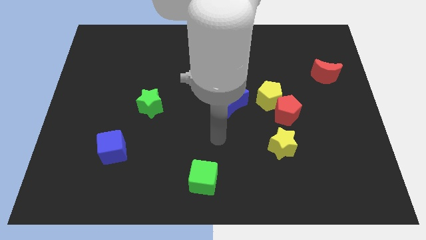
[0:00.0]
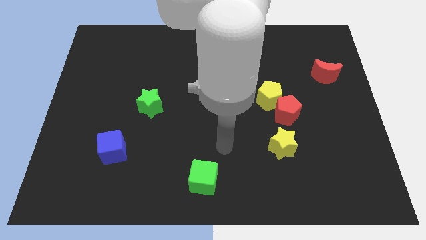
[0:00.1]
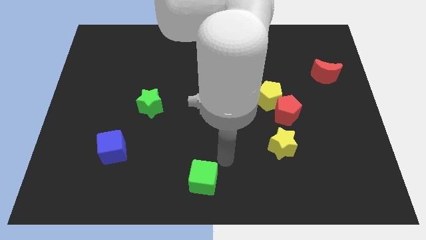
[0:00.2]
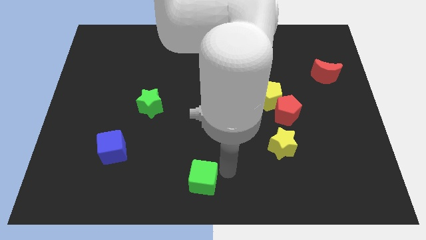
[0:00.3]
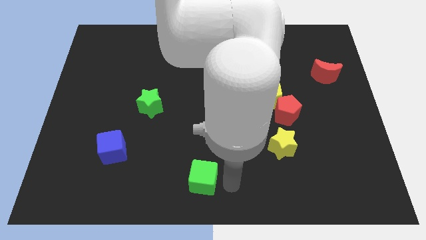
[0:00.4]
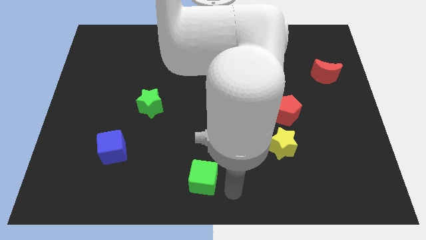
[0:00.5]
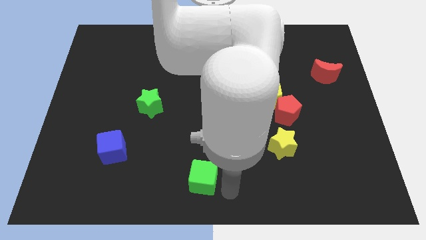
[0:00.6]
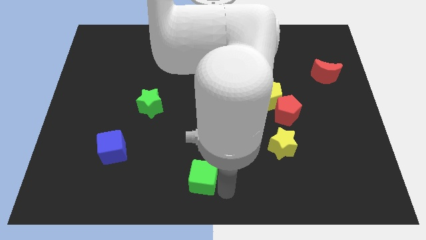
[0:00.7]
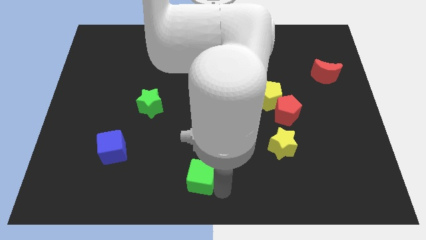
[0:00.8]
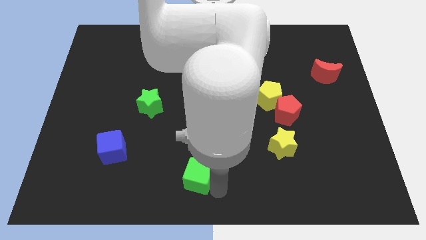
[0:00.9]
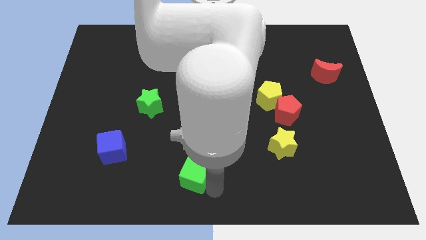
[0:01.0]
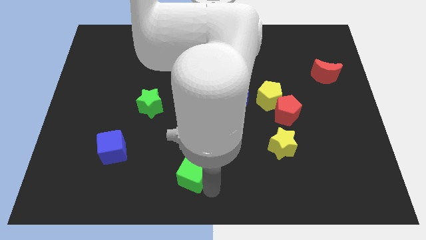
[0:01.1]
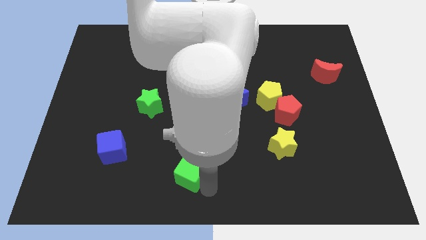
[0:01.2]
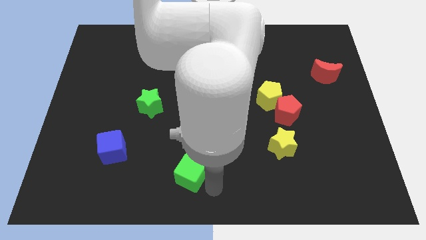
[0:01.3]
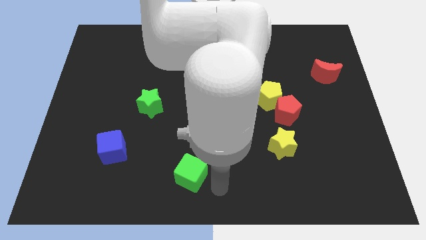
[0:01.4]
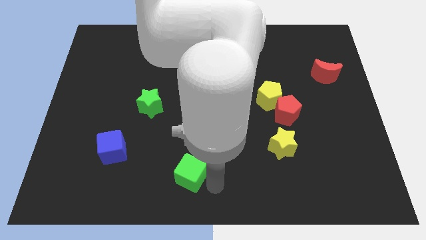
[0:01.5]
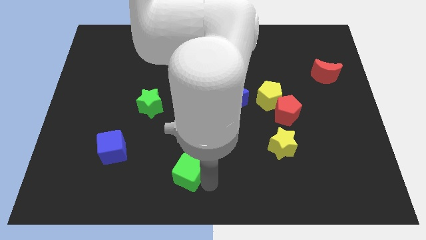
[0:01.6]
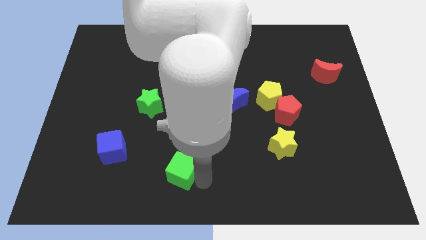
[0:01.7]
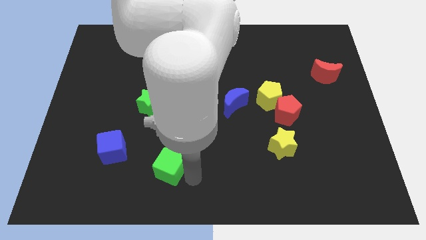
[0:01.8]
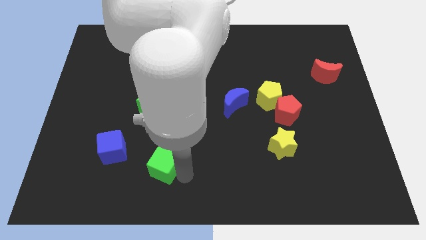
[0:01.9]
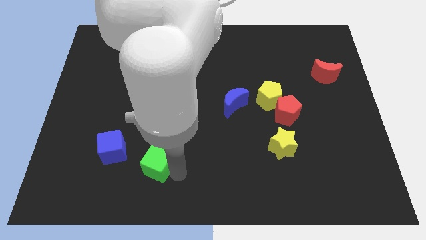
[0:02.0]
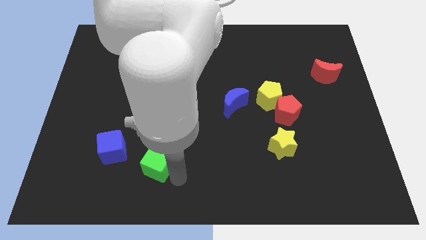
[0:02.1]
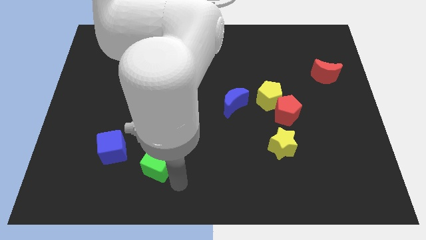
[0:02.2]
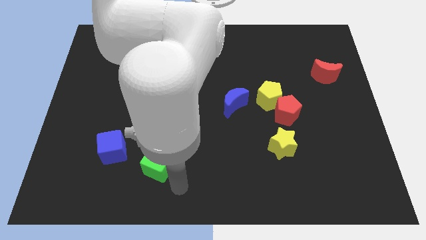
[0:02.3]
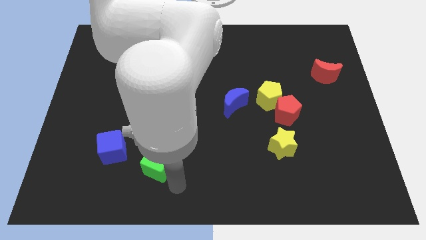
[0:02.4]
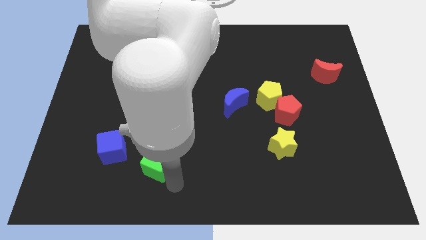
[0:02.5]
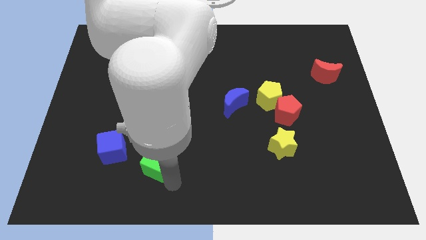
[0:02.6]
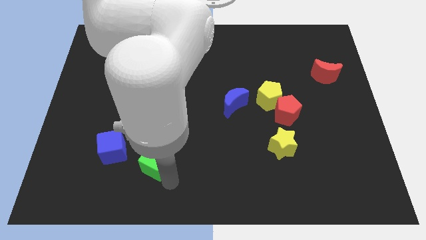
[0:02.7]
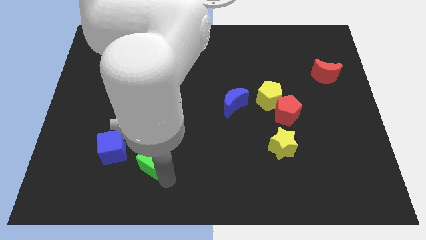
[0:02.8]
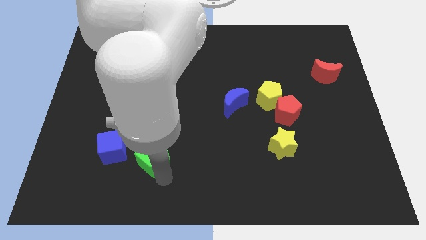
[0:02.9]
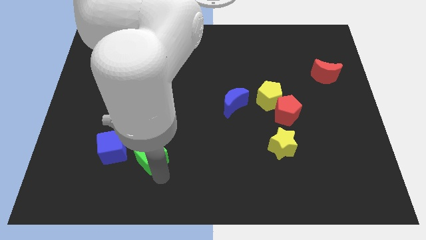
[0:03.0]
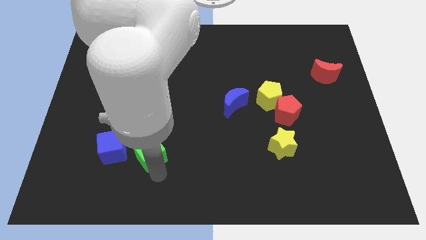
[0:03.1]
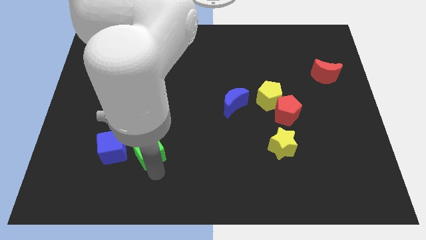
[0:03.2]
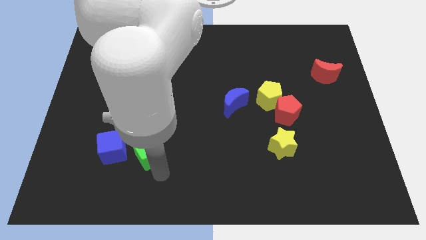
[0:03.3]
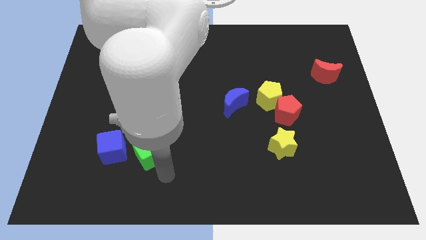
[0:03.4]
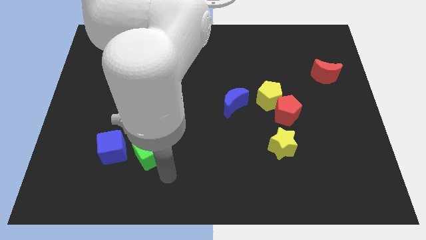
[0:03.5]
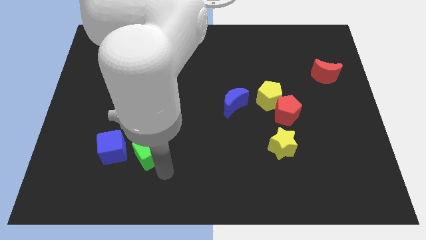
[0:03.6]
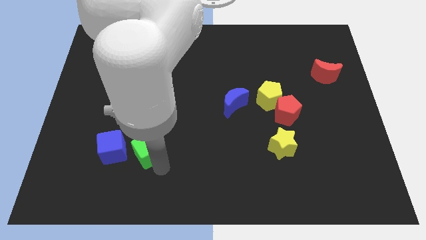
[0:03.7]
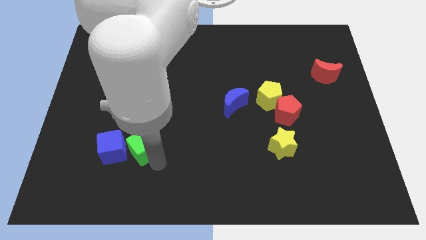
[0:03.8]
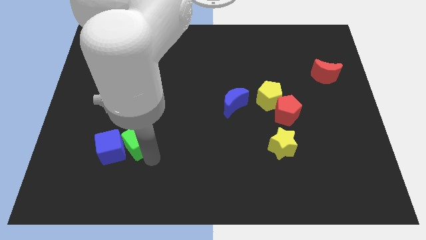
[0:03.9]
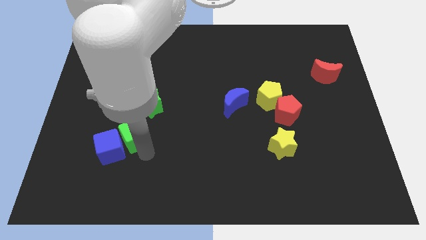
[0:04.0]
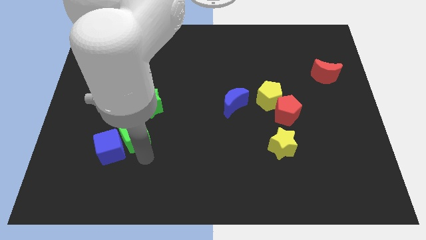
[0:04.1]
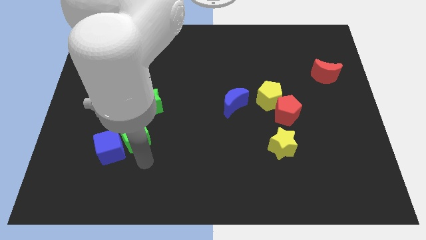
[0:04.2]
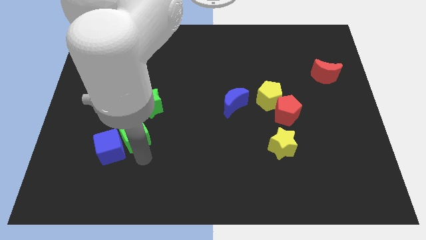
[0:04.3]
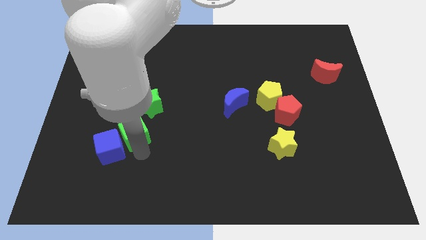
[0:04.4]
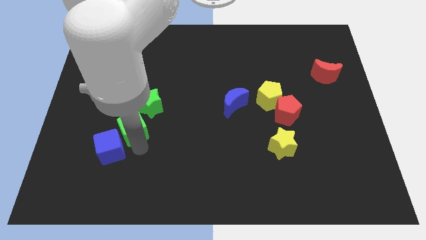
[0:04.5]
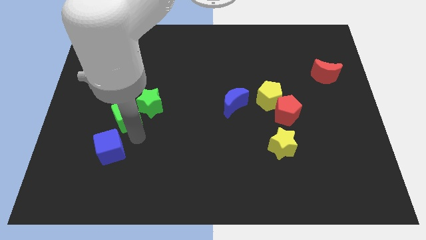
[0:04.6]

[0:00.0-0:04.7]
slide the green cube diagonally up and to the left

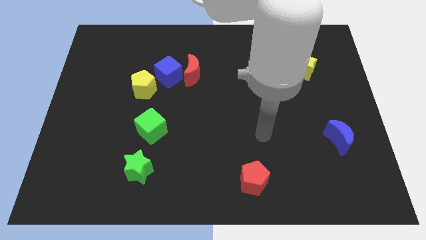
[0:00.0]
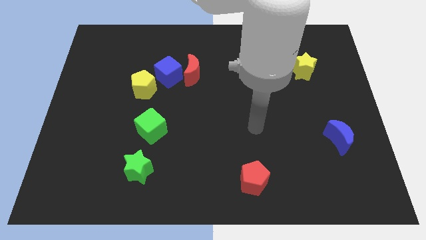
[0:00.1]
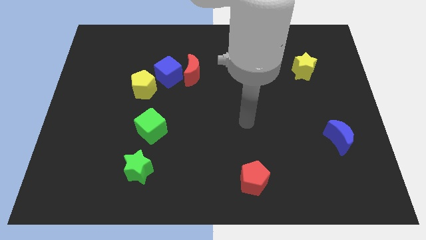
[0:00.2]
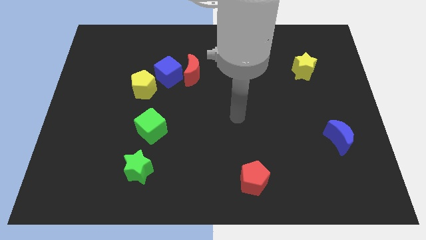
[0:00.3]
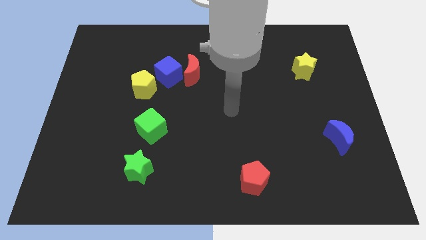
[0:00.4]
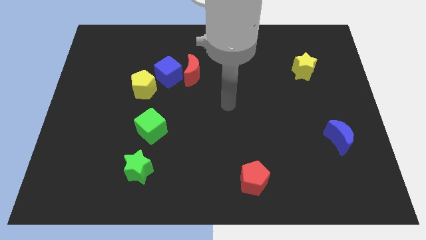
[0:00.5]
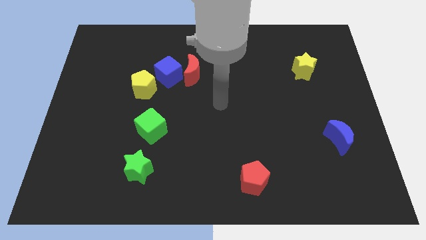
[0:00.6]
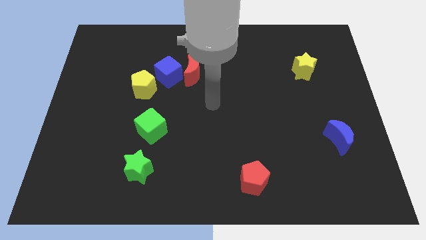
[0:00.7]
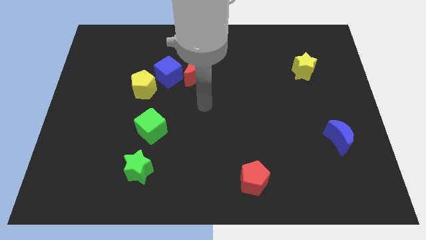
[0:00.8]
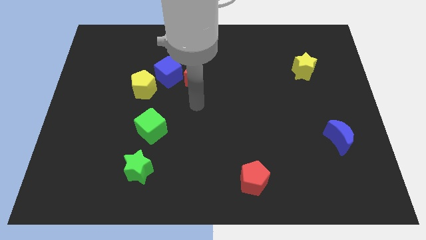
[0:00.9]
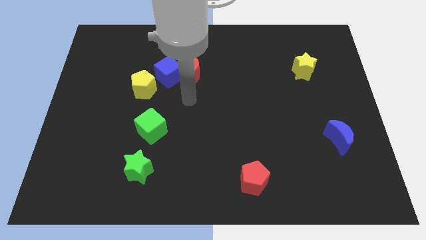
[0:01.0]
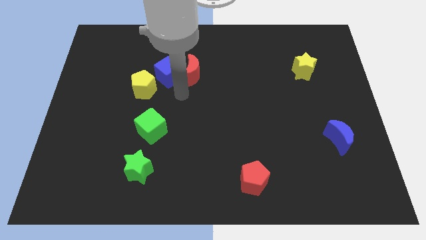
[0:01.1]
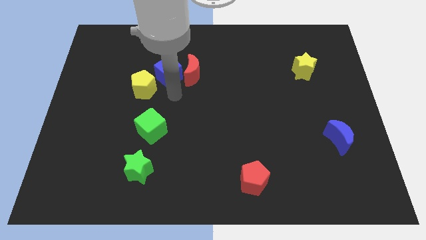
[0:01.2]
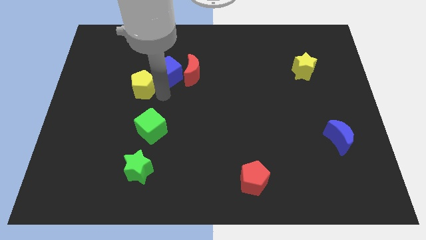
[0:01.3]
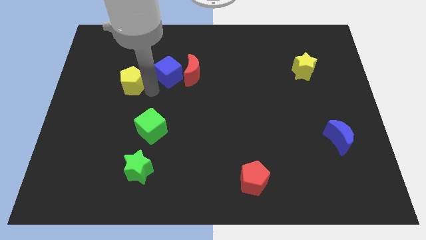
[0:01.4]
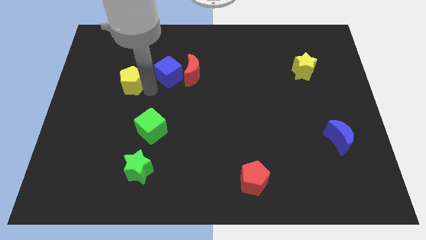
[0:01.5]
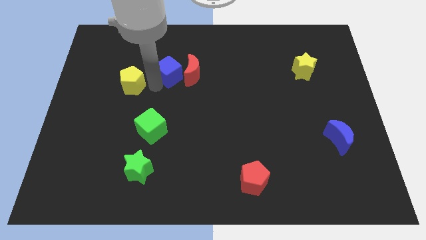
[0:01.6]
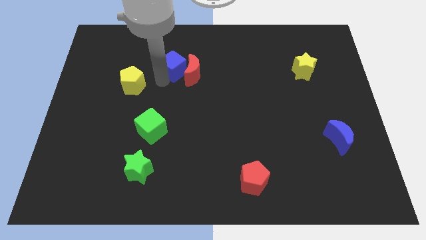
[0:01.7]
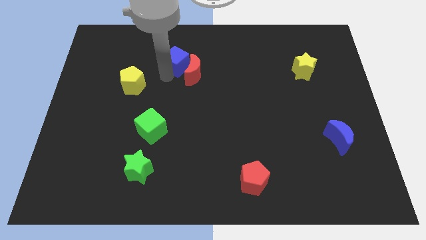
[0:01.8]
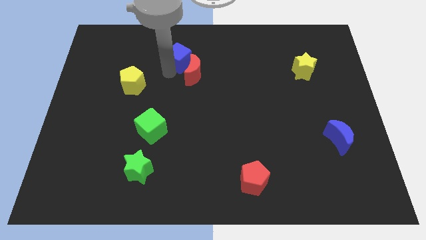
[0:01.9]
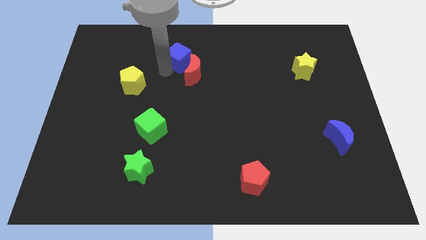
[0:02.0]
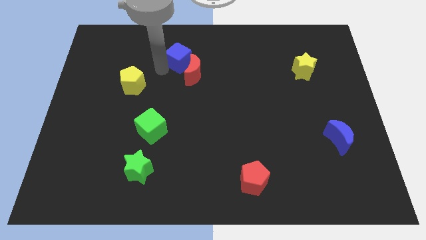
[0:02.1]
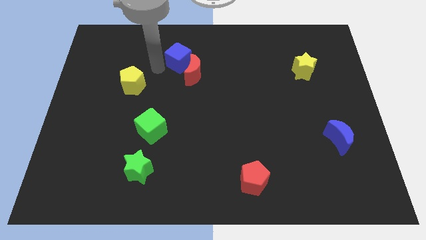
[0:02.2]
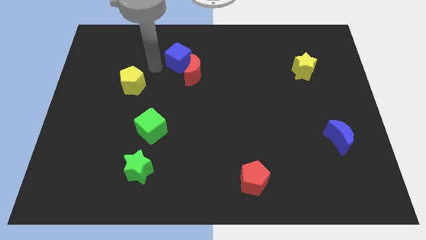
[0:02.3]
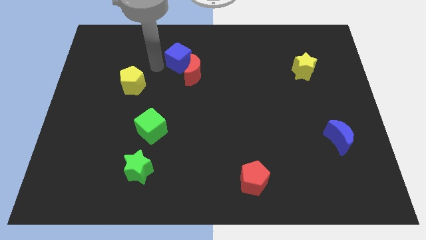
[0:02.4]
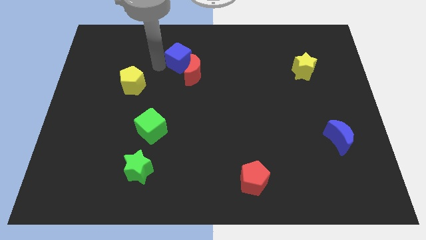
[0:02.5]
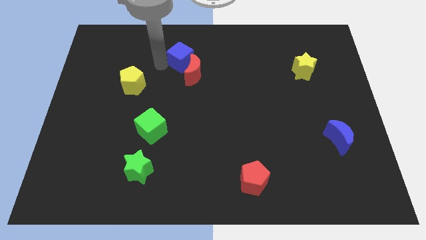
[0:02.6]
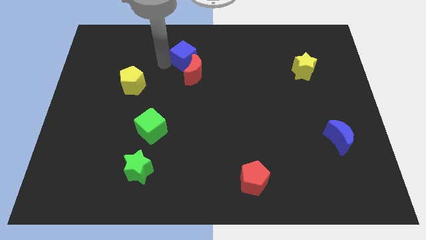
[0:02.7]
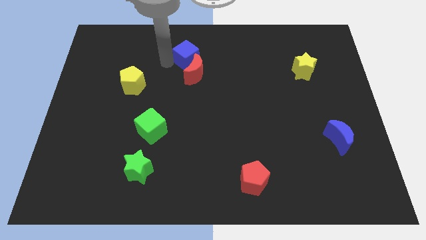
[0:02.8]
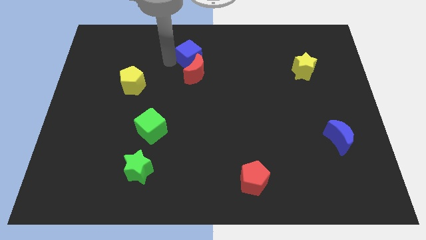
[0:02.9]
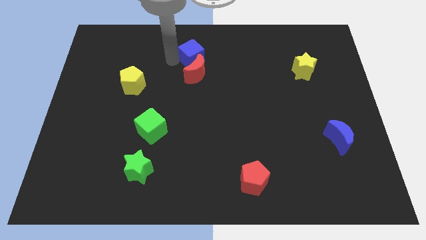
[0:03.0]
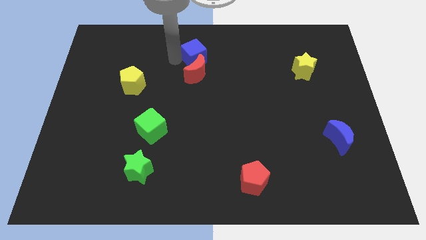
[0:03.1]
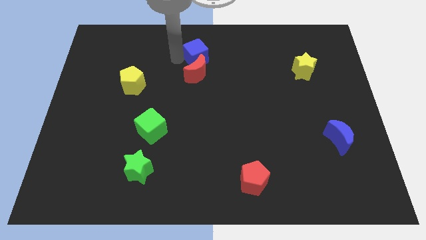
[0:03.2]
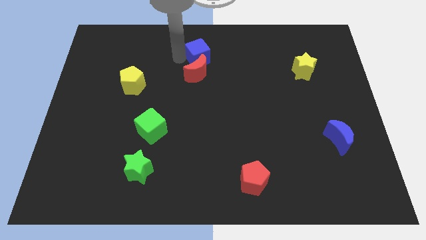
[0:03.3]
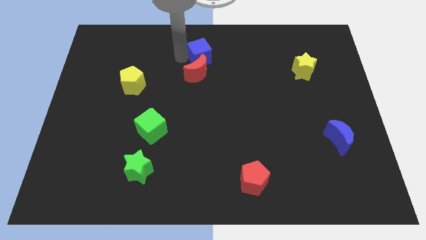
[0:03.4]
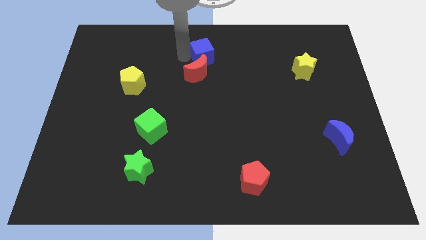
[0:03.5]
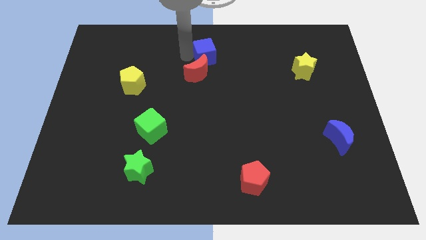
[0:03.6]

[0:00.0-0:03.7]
slide the blue cube to the right a bit
